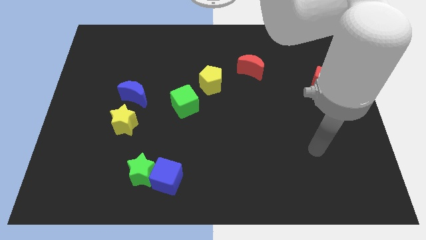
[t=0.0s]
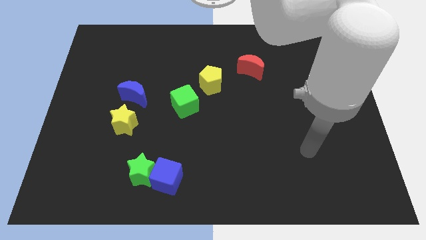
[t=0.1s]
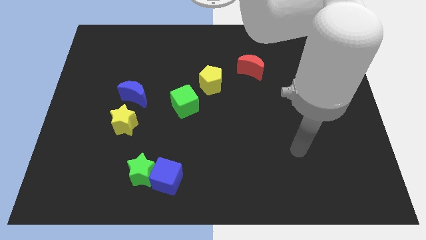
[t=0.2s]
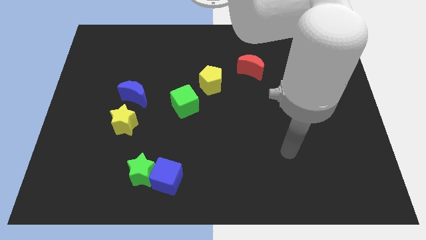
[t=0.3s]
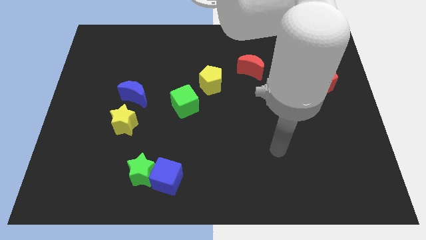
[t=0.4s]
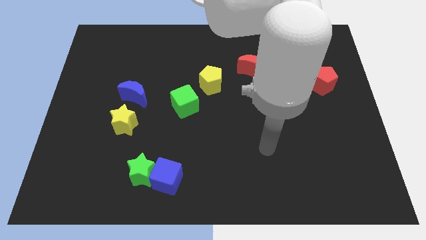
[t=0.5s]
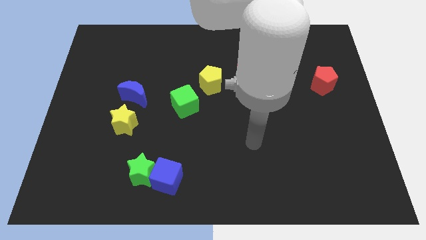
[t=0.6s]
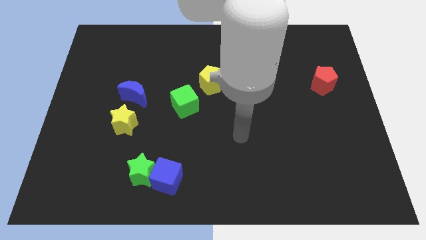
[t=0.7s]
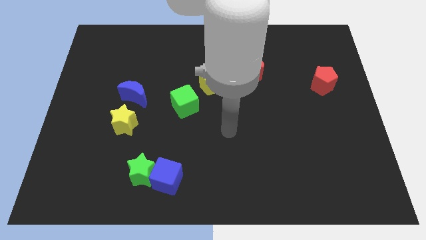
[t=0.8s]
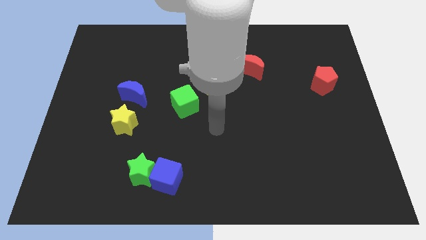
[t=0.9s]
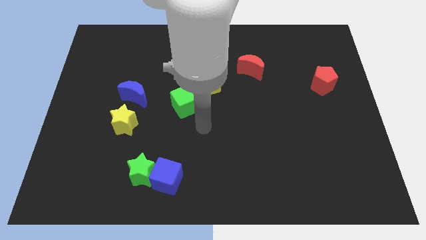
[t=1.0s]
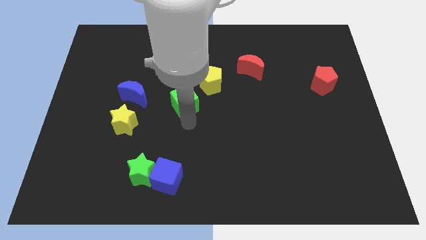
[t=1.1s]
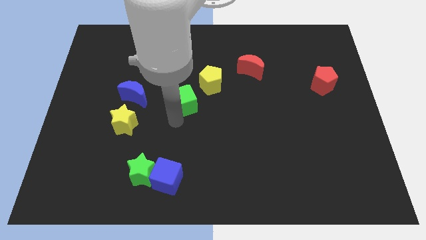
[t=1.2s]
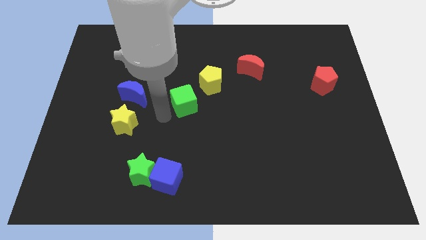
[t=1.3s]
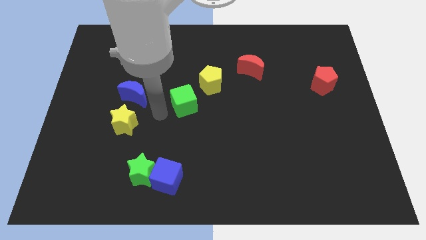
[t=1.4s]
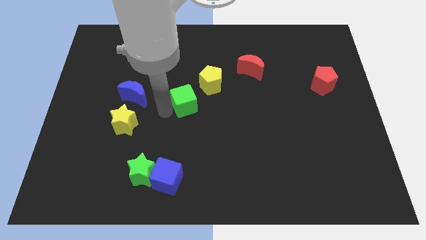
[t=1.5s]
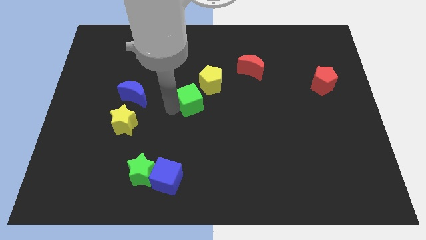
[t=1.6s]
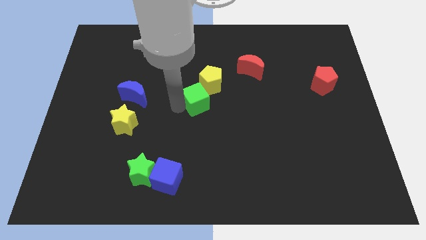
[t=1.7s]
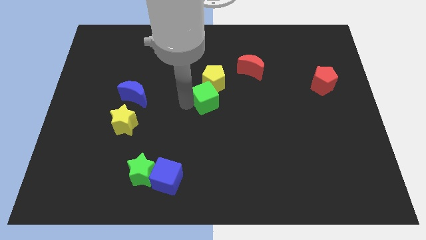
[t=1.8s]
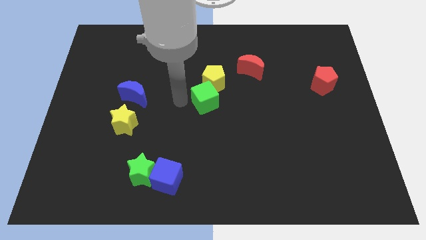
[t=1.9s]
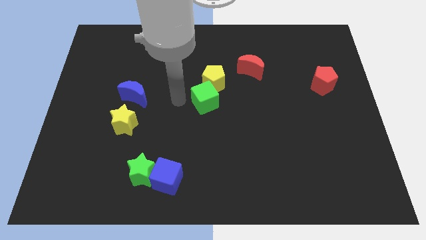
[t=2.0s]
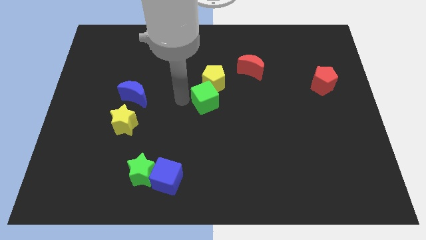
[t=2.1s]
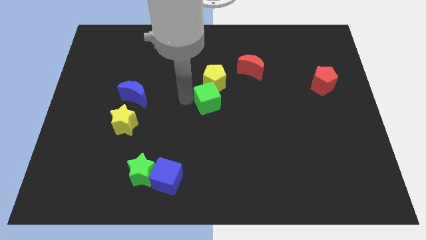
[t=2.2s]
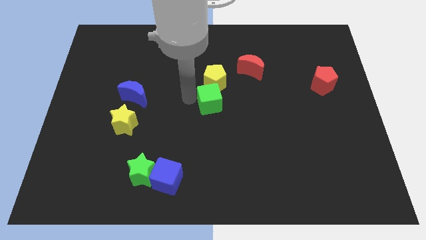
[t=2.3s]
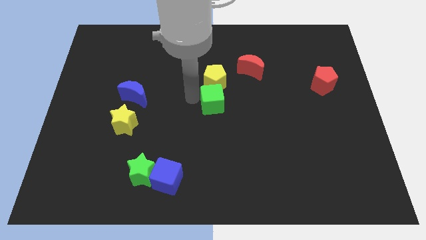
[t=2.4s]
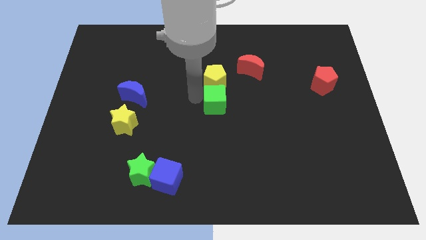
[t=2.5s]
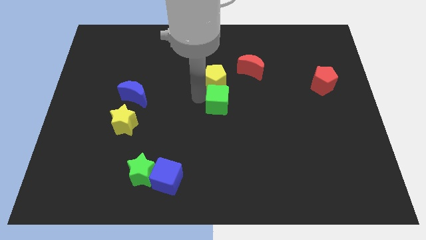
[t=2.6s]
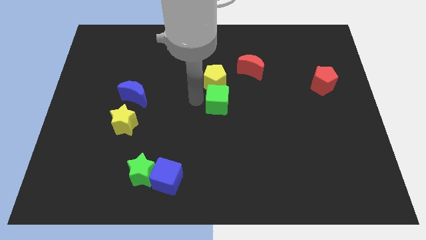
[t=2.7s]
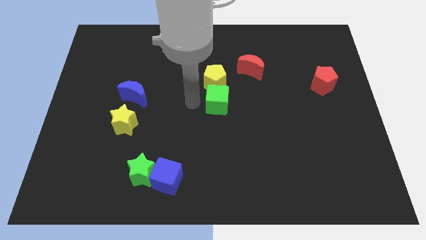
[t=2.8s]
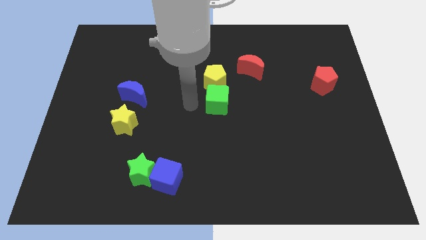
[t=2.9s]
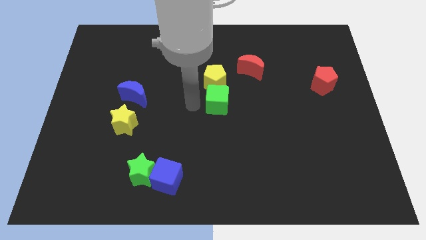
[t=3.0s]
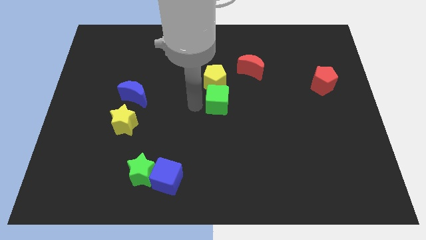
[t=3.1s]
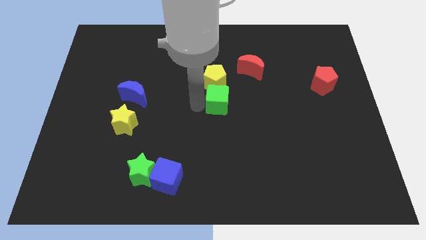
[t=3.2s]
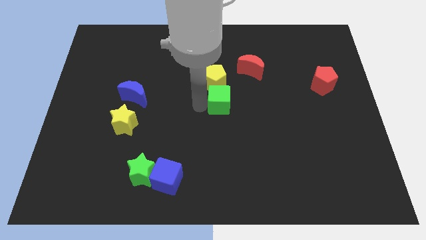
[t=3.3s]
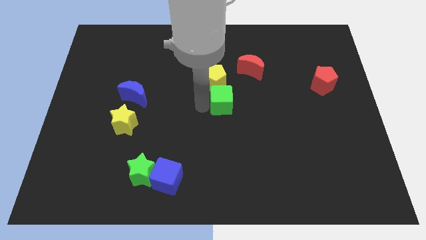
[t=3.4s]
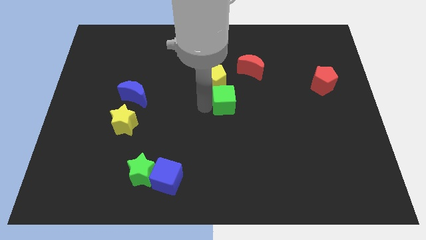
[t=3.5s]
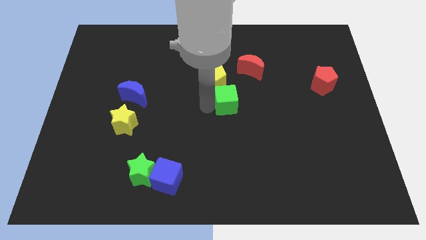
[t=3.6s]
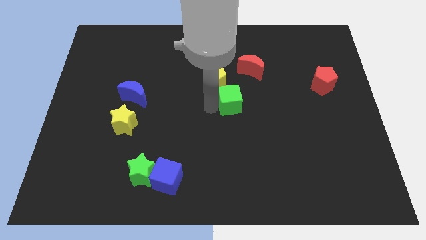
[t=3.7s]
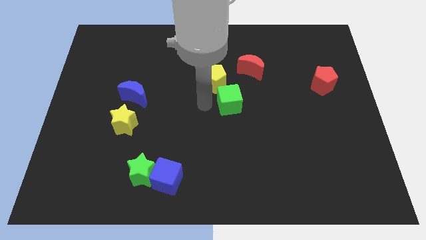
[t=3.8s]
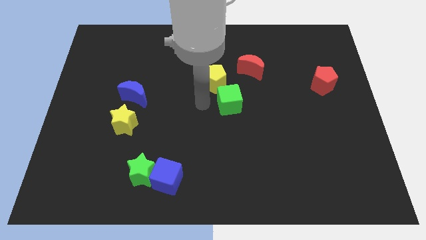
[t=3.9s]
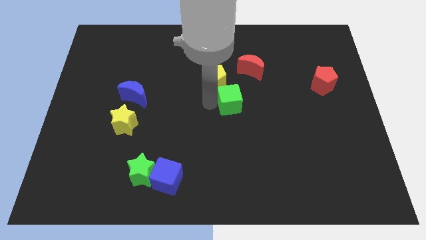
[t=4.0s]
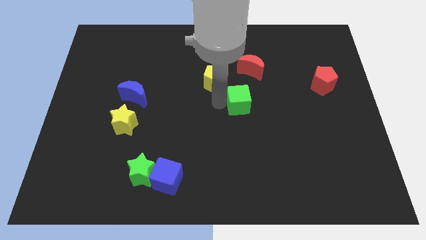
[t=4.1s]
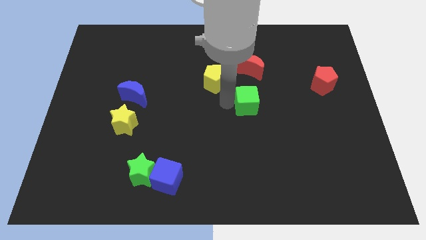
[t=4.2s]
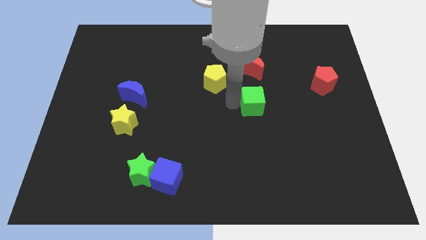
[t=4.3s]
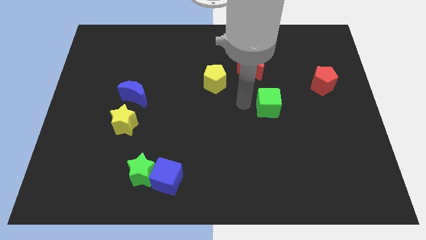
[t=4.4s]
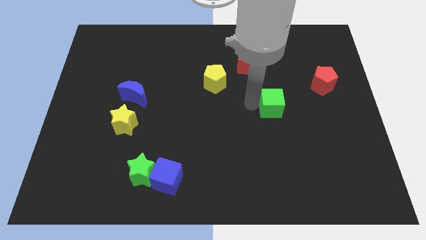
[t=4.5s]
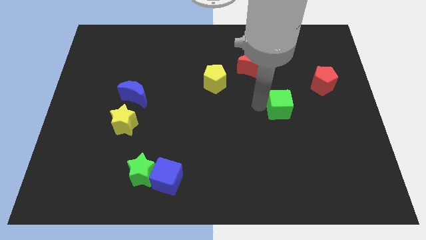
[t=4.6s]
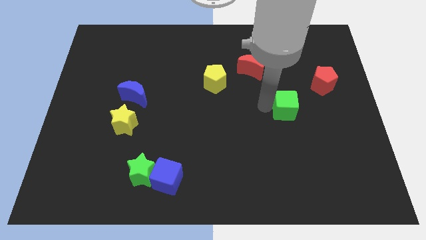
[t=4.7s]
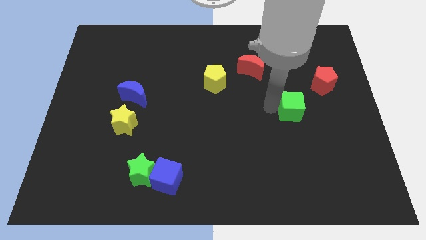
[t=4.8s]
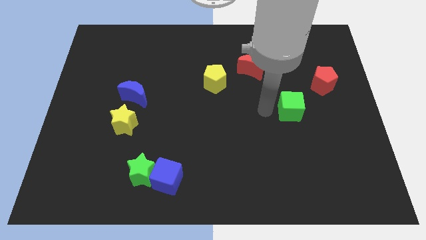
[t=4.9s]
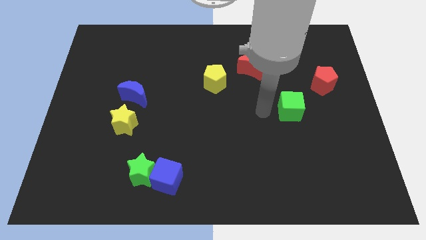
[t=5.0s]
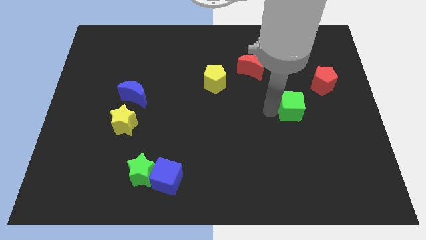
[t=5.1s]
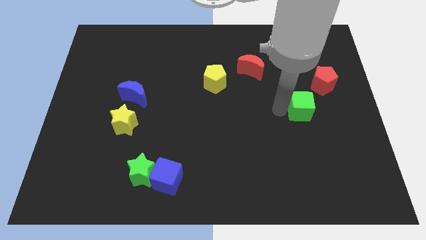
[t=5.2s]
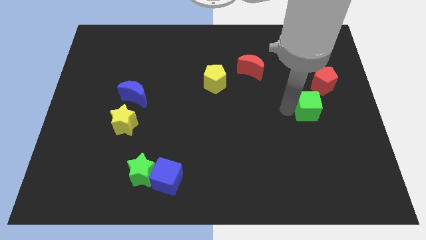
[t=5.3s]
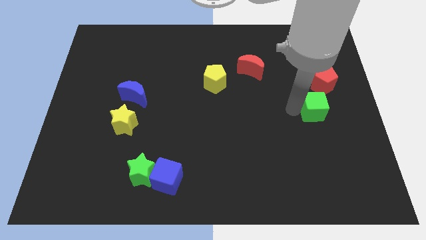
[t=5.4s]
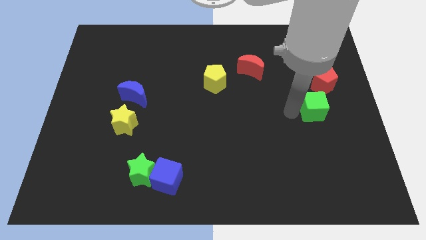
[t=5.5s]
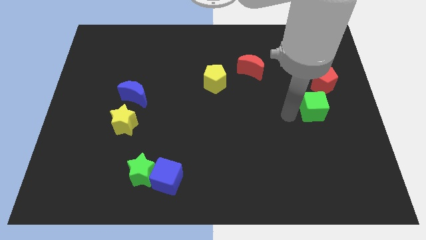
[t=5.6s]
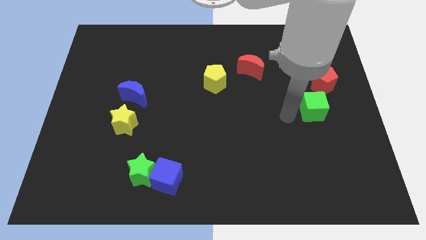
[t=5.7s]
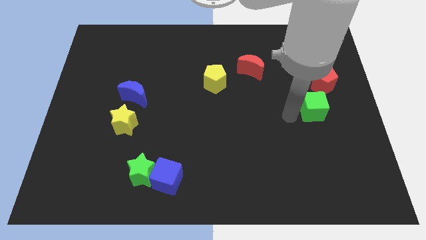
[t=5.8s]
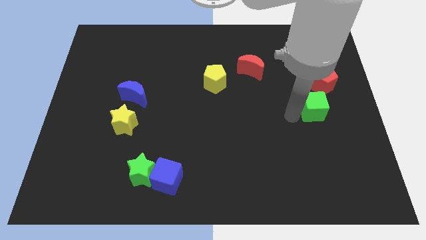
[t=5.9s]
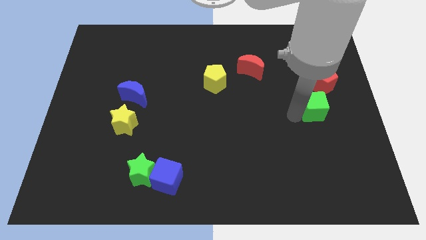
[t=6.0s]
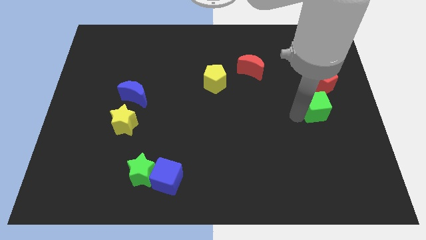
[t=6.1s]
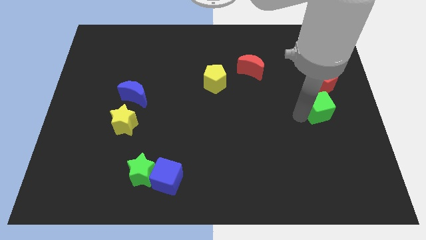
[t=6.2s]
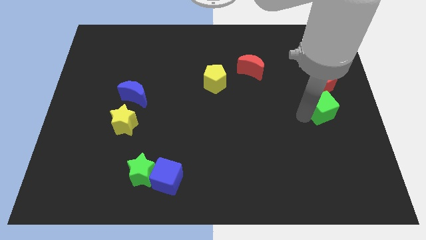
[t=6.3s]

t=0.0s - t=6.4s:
slide the green cube to the right side
